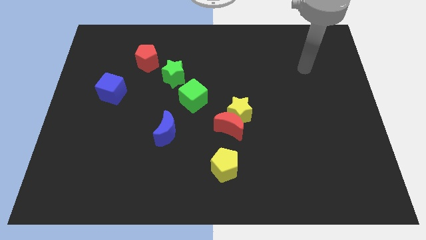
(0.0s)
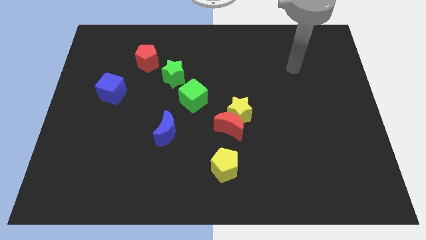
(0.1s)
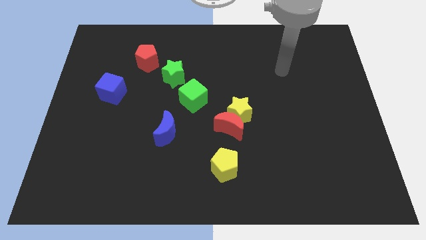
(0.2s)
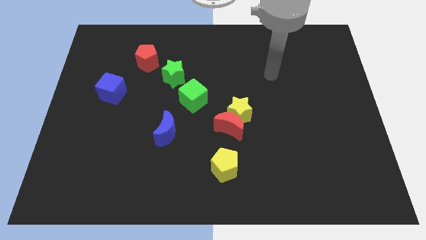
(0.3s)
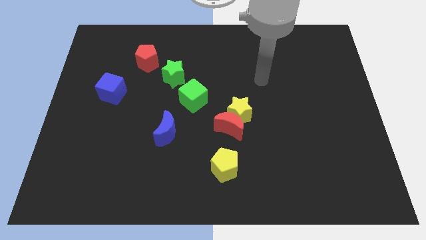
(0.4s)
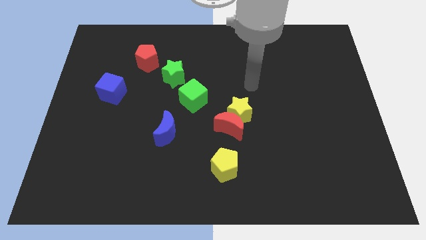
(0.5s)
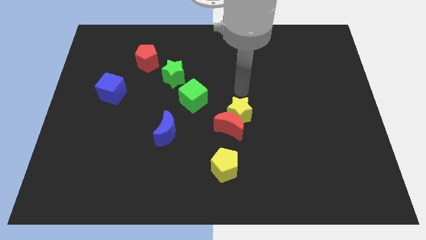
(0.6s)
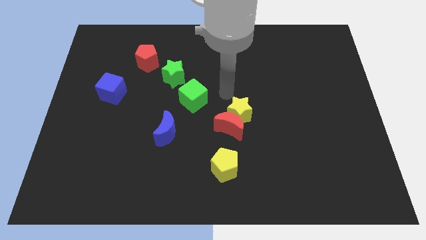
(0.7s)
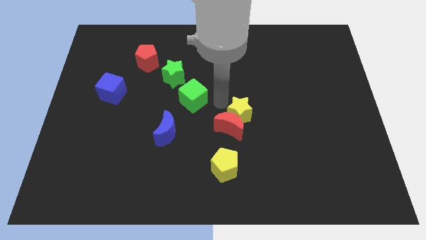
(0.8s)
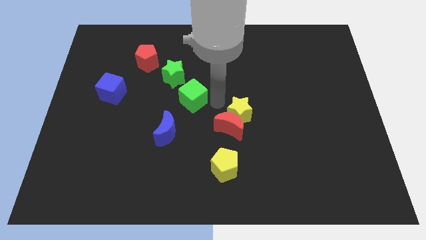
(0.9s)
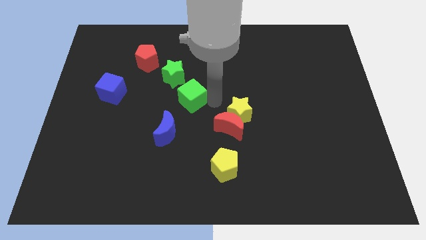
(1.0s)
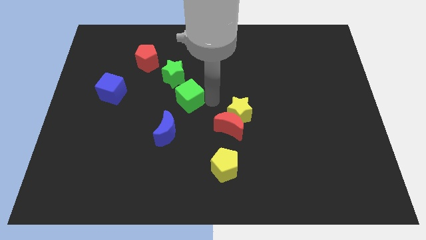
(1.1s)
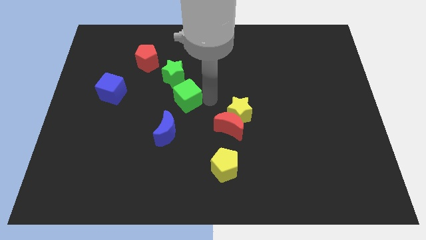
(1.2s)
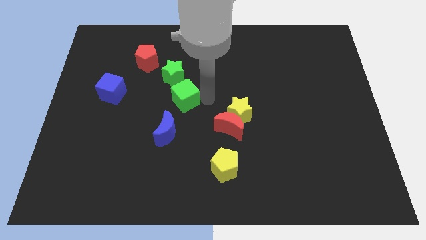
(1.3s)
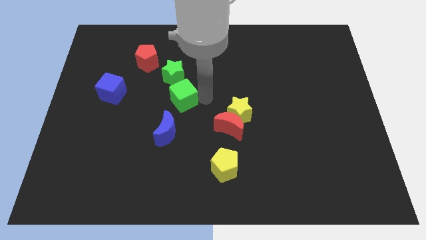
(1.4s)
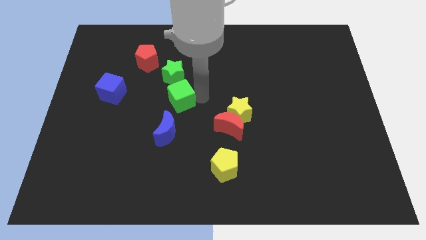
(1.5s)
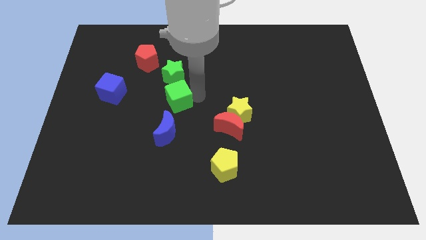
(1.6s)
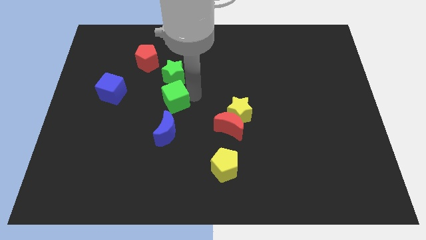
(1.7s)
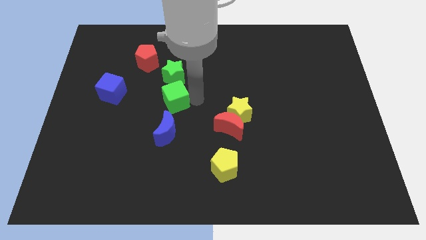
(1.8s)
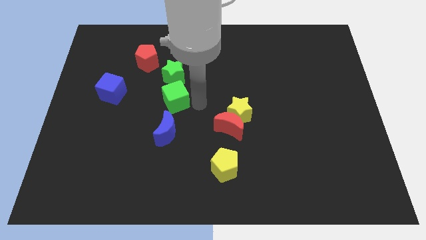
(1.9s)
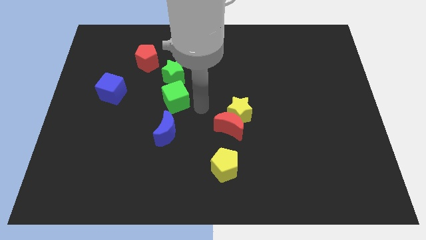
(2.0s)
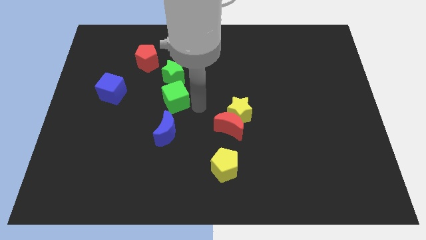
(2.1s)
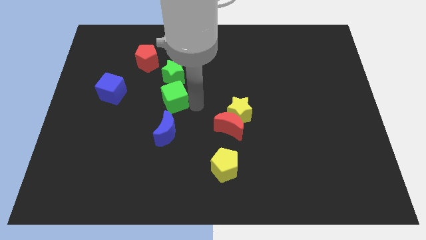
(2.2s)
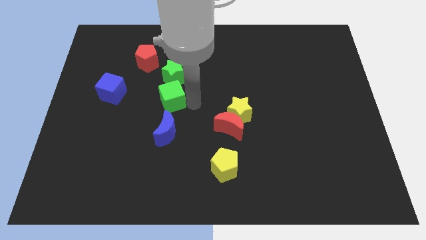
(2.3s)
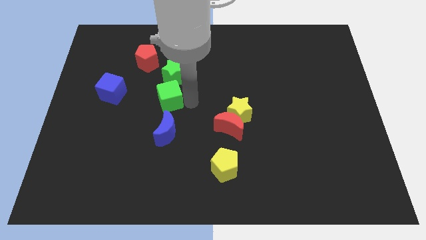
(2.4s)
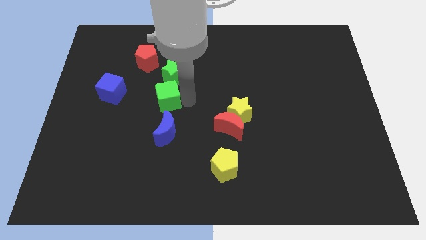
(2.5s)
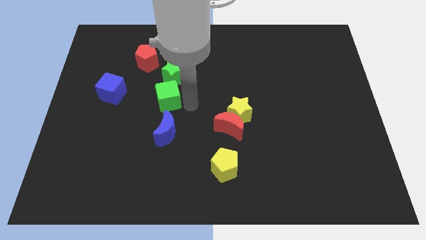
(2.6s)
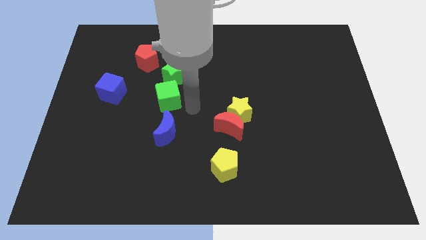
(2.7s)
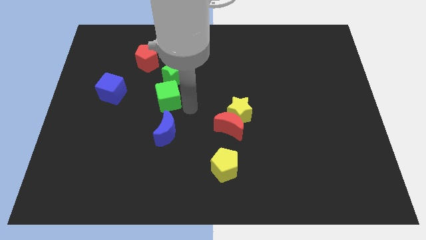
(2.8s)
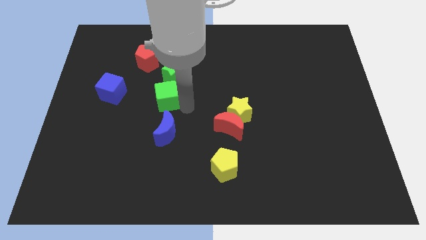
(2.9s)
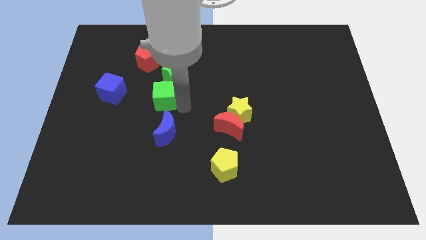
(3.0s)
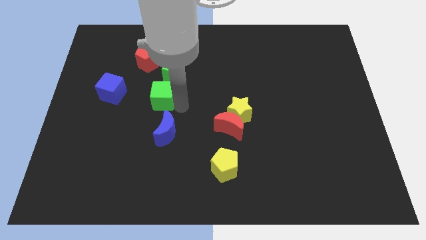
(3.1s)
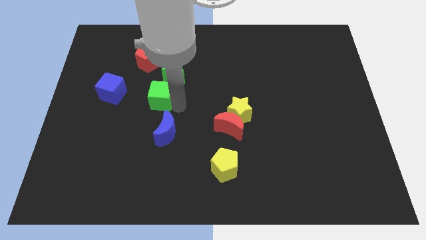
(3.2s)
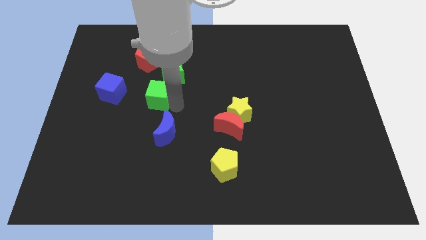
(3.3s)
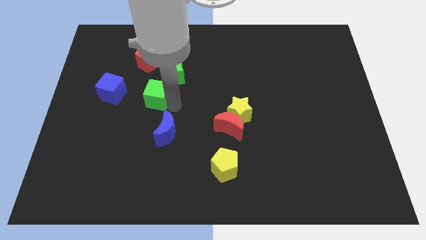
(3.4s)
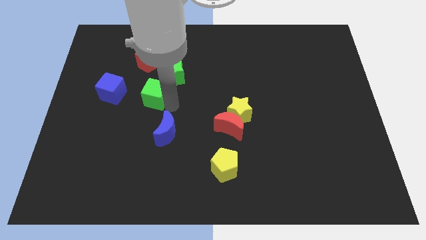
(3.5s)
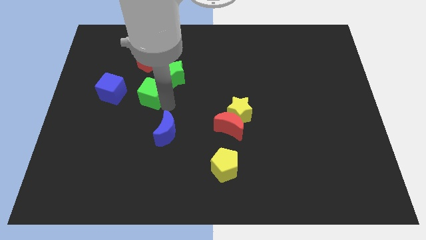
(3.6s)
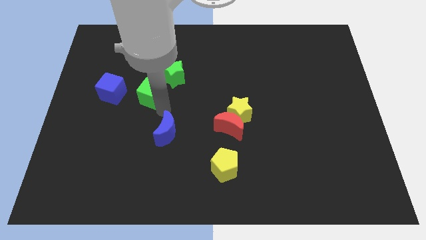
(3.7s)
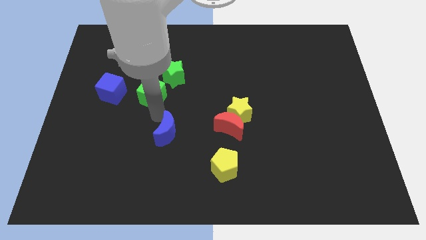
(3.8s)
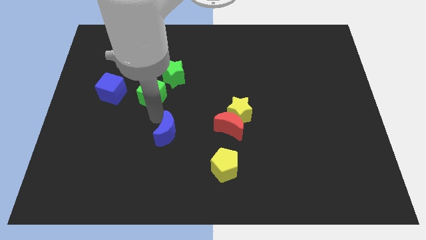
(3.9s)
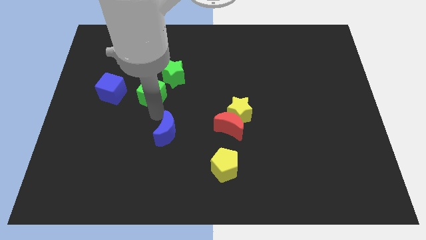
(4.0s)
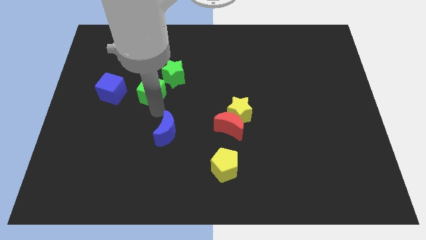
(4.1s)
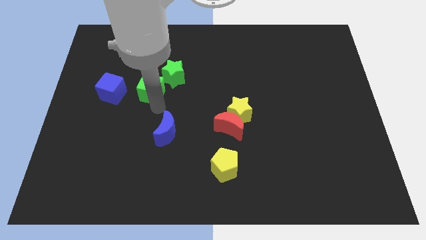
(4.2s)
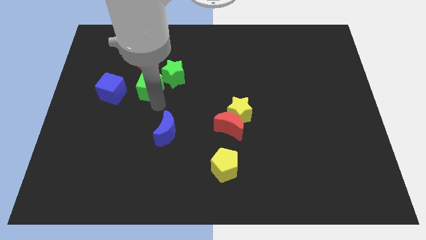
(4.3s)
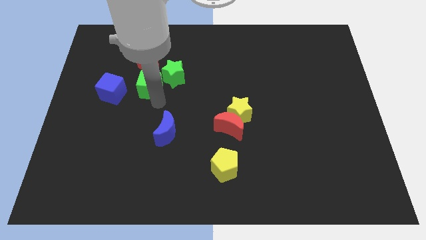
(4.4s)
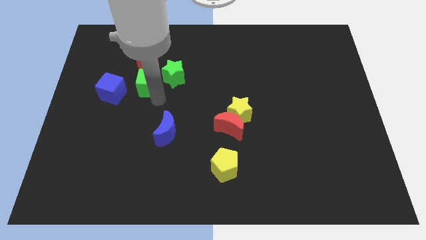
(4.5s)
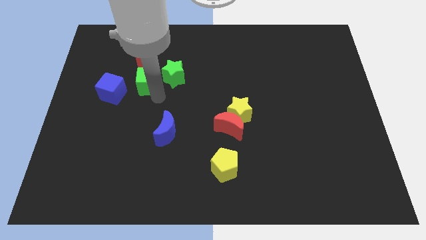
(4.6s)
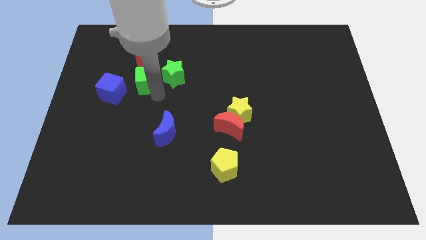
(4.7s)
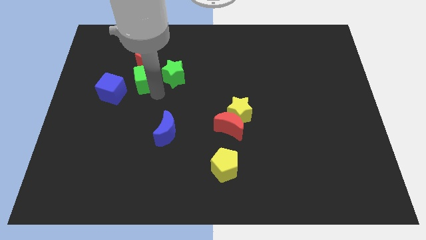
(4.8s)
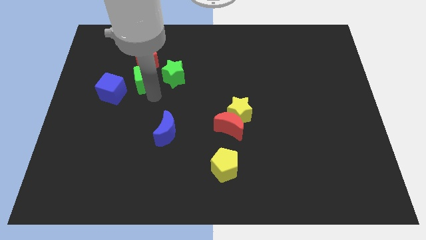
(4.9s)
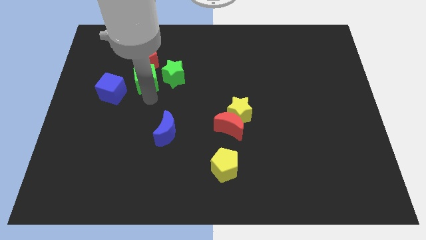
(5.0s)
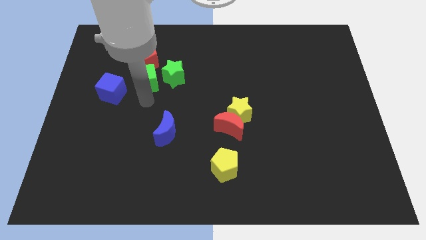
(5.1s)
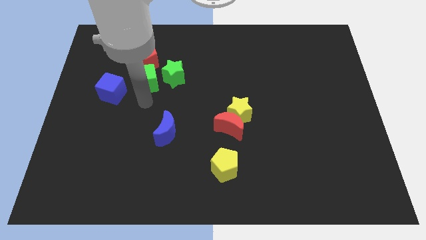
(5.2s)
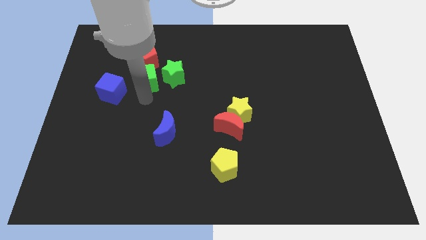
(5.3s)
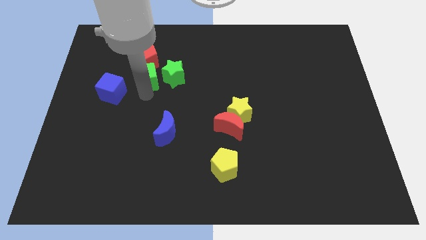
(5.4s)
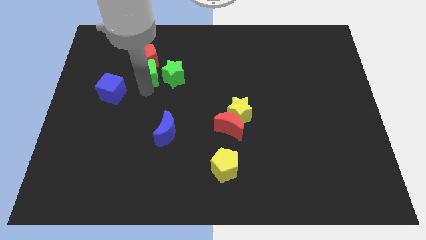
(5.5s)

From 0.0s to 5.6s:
move the green cube next to the red pentagon

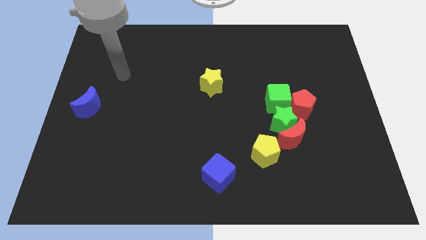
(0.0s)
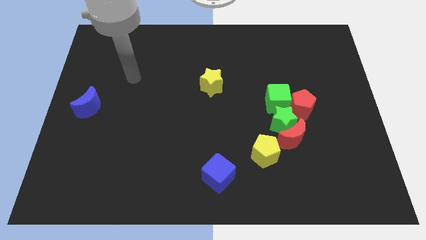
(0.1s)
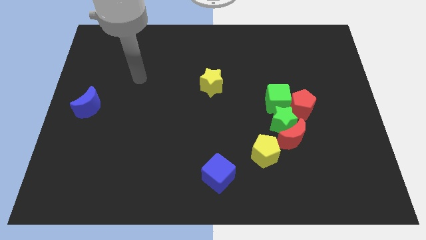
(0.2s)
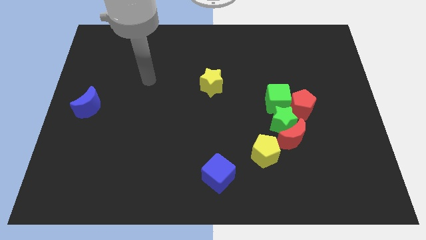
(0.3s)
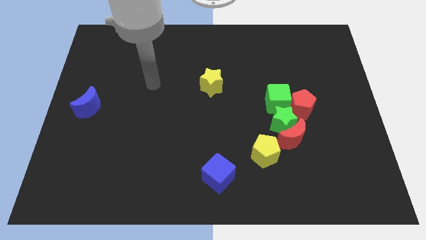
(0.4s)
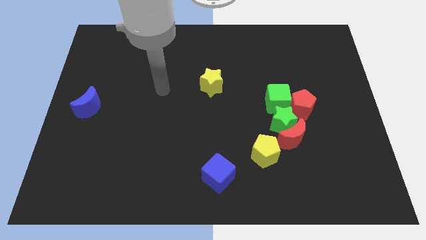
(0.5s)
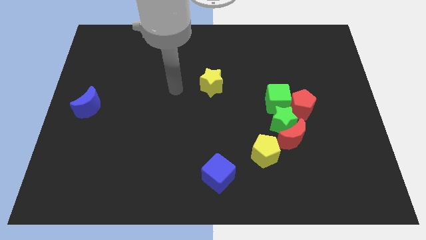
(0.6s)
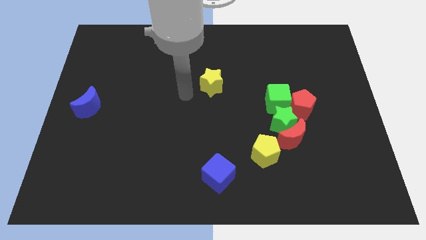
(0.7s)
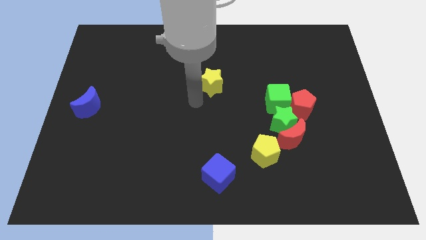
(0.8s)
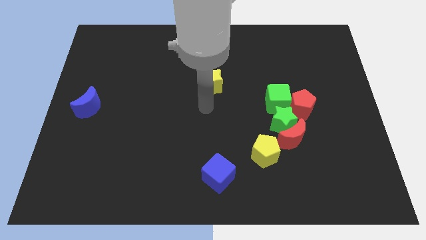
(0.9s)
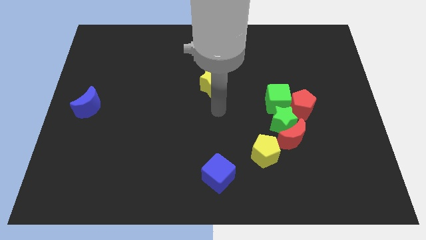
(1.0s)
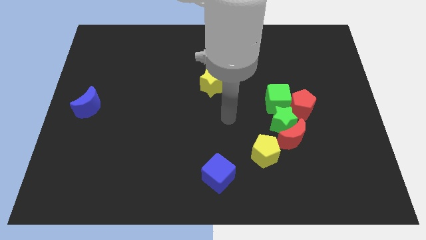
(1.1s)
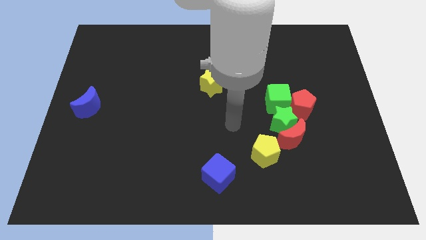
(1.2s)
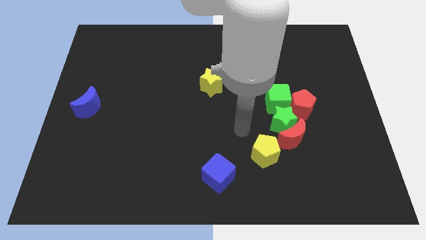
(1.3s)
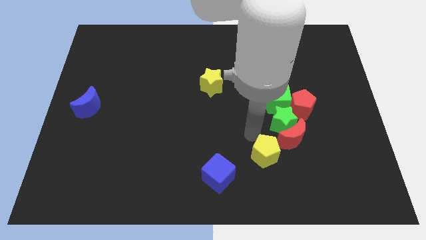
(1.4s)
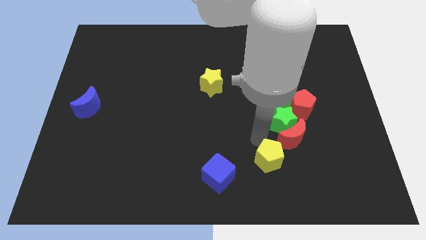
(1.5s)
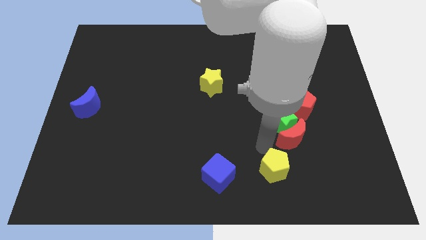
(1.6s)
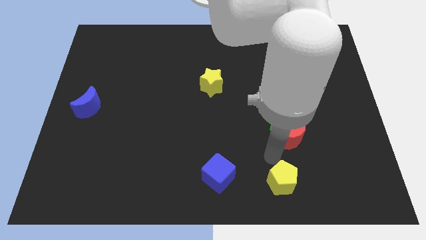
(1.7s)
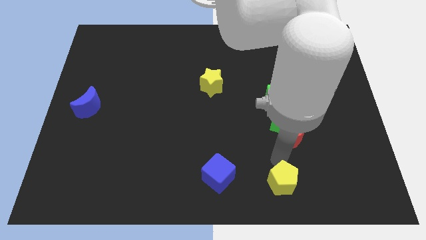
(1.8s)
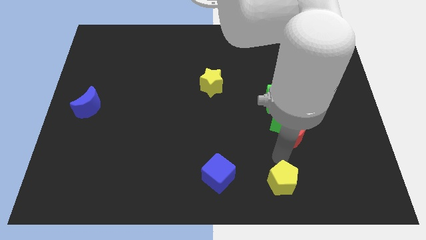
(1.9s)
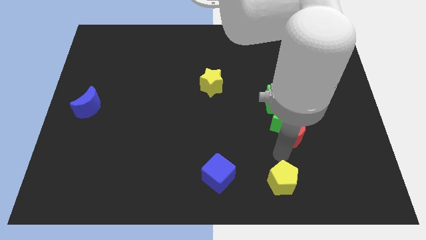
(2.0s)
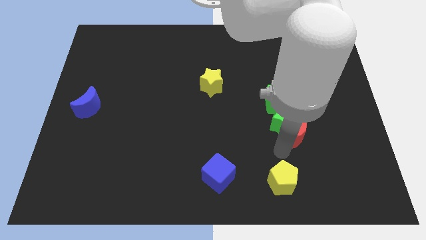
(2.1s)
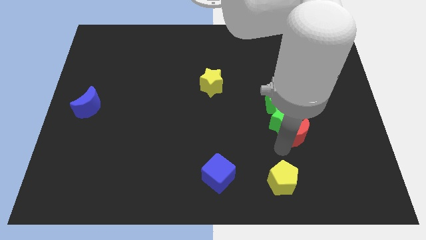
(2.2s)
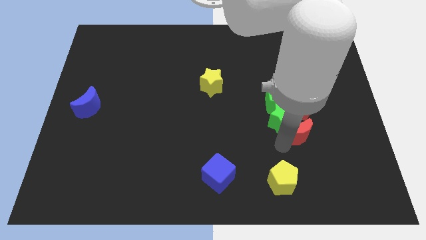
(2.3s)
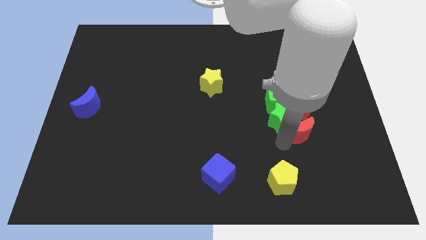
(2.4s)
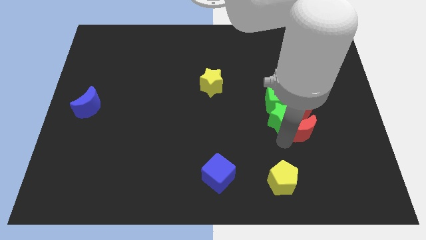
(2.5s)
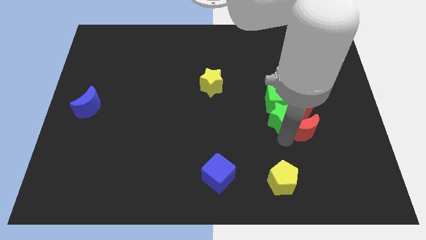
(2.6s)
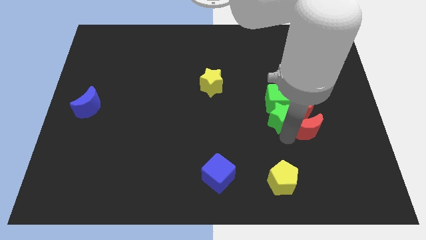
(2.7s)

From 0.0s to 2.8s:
slide the red moon towards the red pentagon
